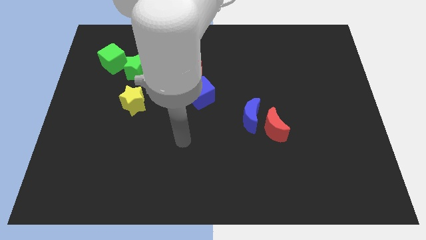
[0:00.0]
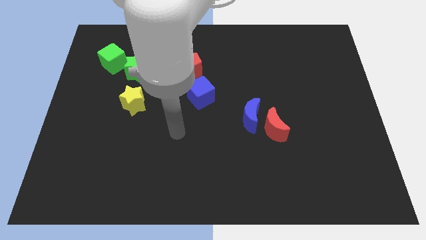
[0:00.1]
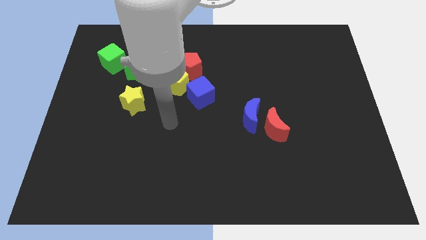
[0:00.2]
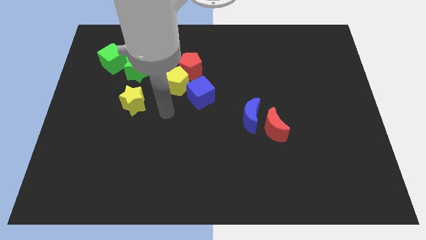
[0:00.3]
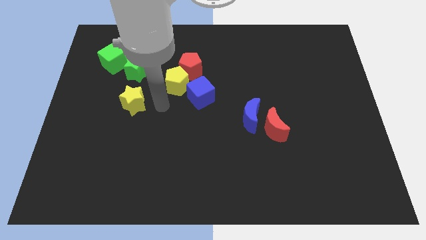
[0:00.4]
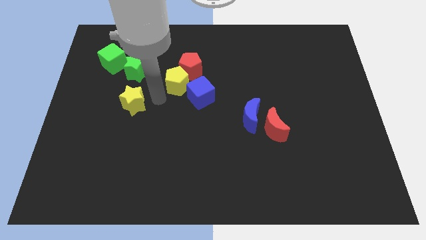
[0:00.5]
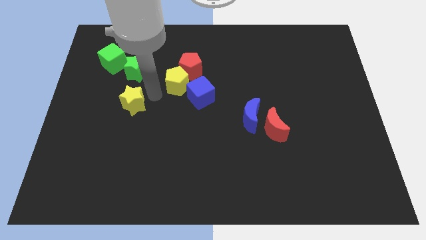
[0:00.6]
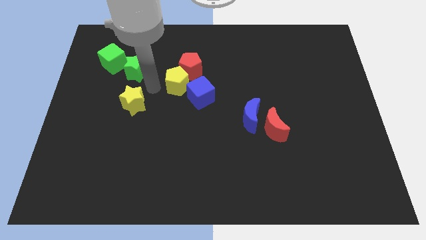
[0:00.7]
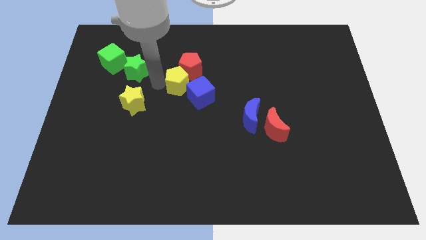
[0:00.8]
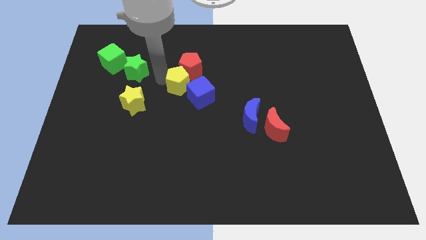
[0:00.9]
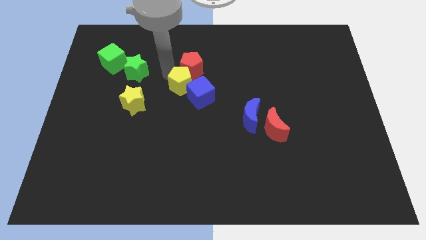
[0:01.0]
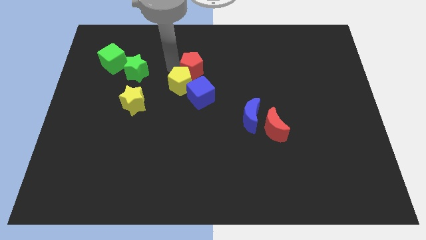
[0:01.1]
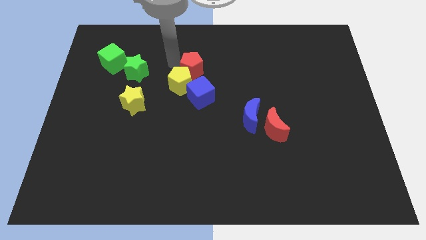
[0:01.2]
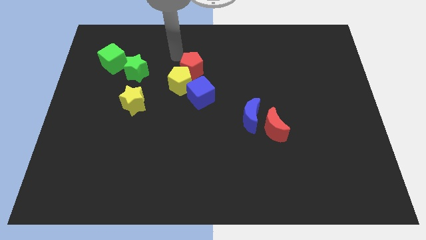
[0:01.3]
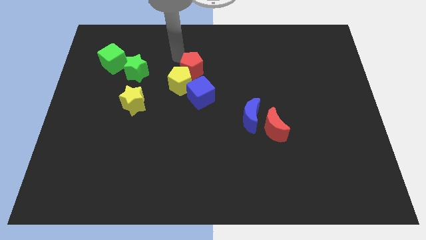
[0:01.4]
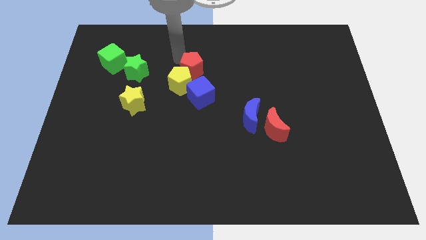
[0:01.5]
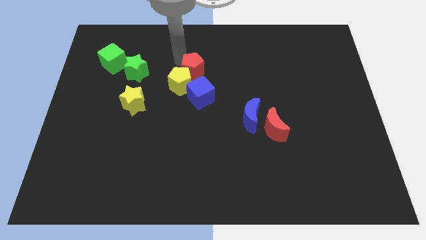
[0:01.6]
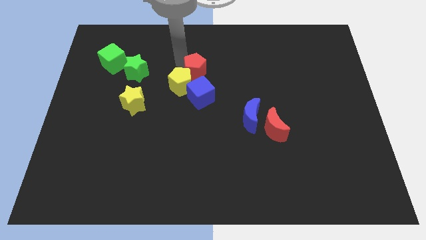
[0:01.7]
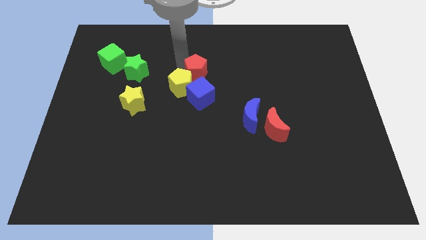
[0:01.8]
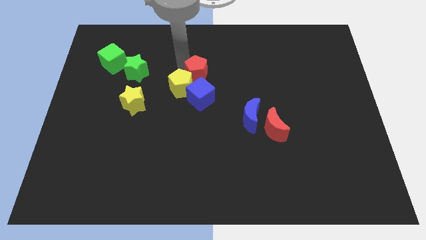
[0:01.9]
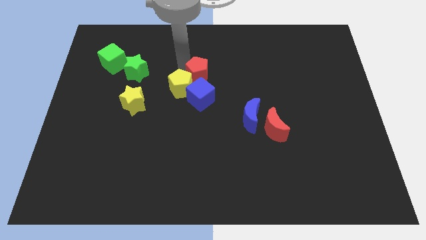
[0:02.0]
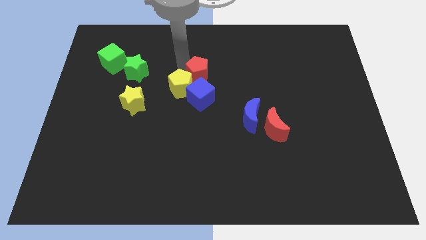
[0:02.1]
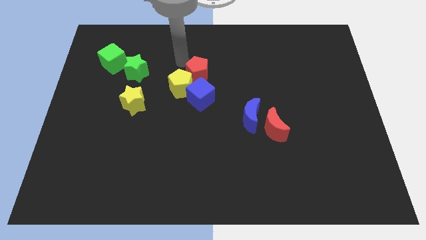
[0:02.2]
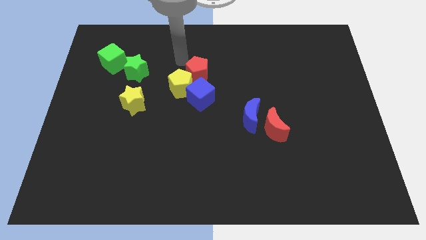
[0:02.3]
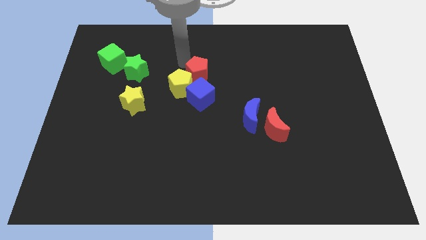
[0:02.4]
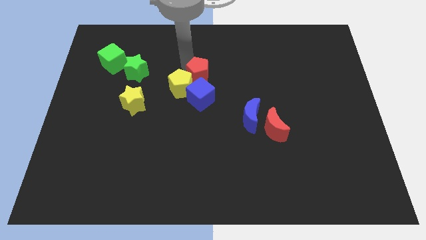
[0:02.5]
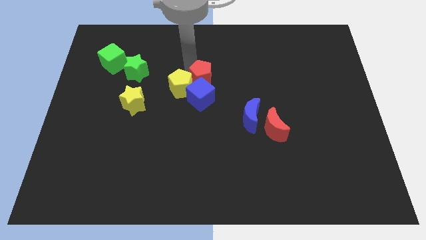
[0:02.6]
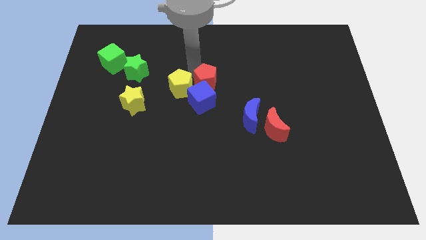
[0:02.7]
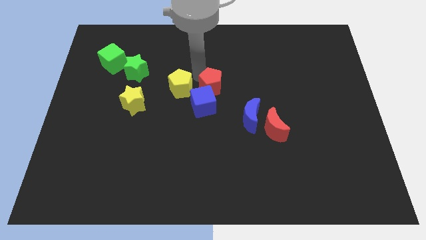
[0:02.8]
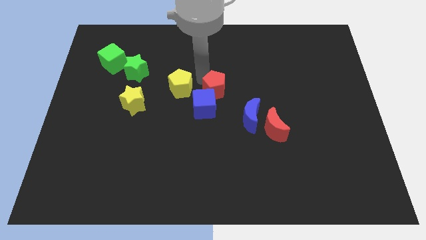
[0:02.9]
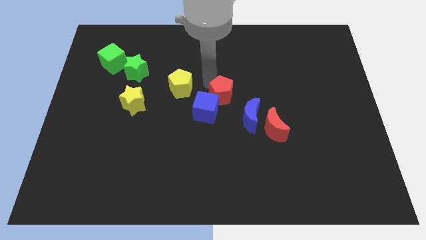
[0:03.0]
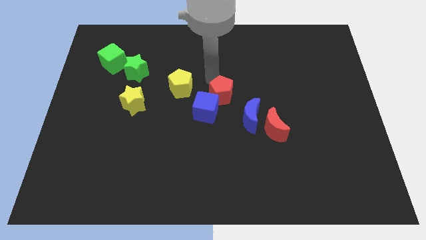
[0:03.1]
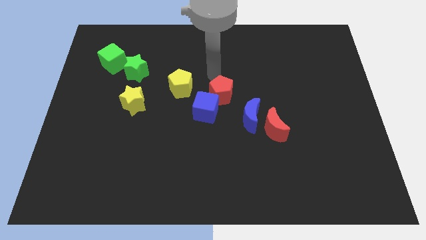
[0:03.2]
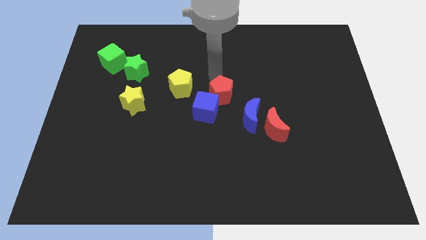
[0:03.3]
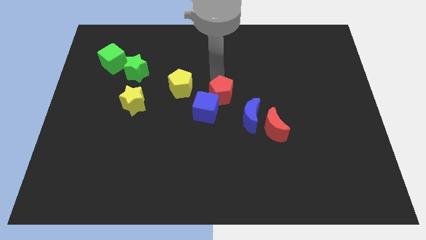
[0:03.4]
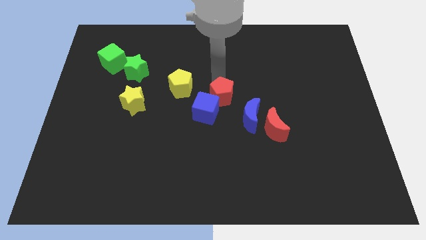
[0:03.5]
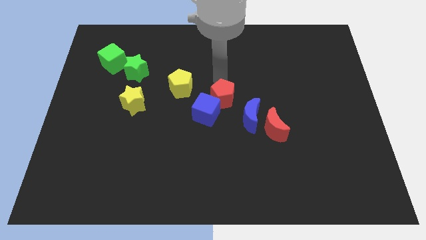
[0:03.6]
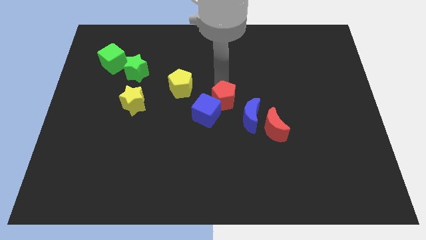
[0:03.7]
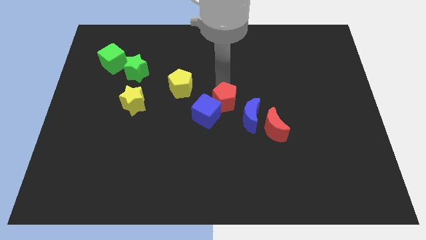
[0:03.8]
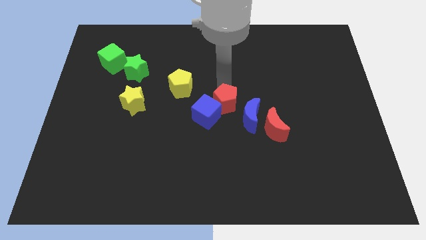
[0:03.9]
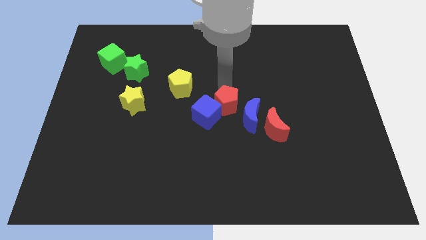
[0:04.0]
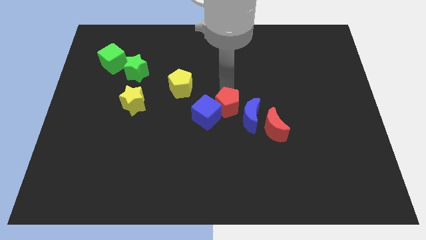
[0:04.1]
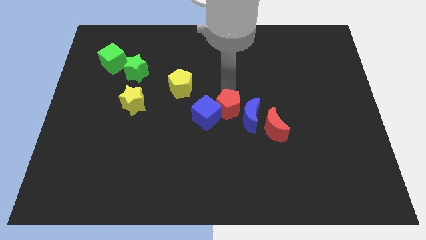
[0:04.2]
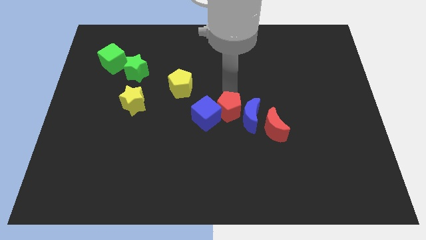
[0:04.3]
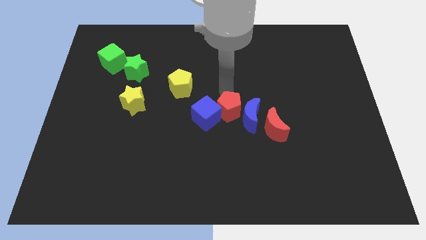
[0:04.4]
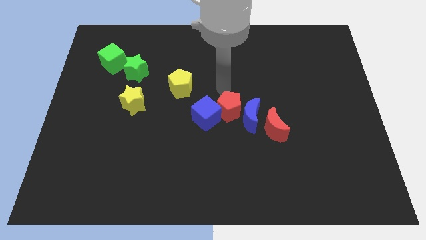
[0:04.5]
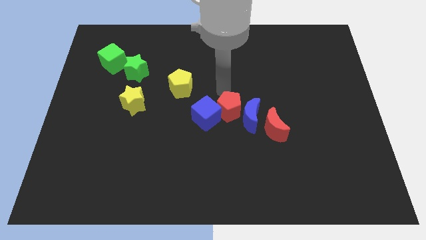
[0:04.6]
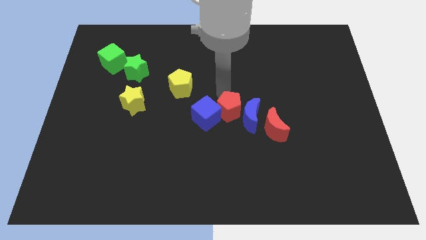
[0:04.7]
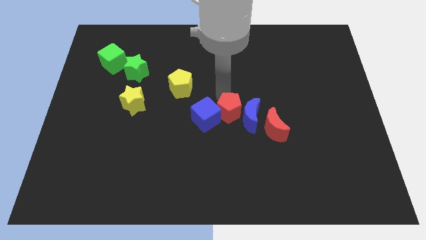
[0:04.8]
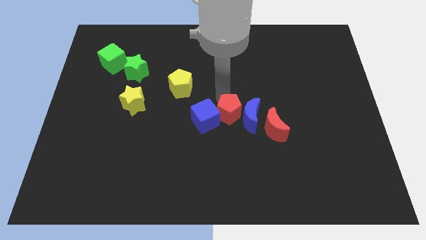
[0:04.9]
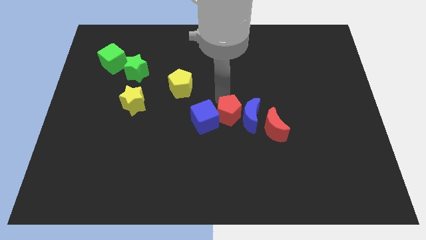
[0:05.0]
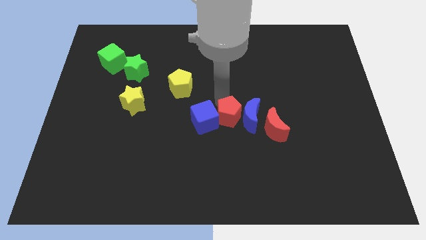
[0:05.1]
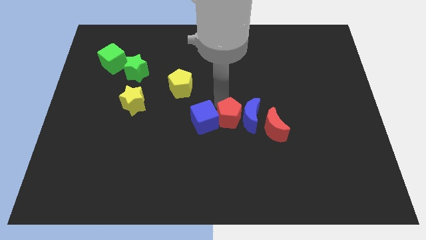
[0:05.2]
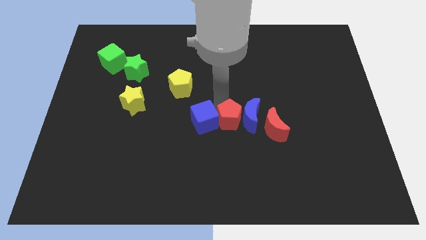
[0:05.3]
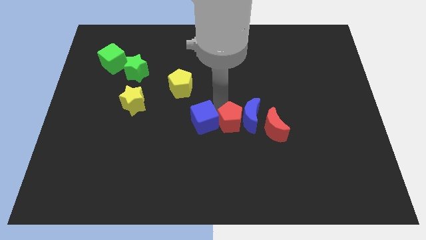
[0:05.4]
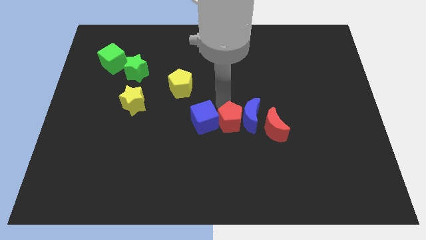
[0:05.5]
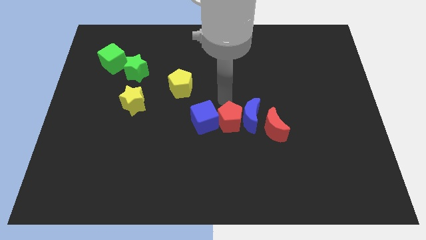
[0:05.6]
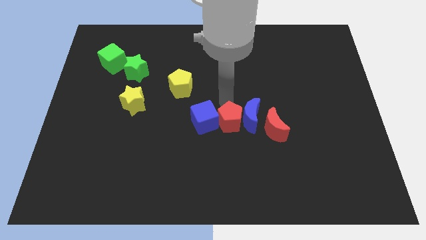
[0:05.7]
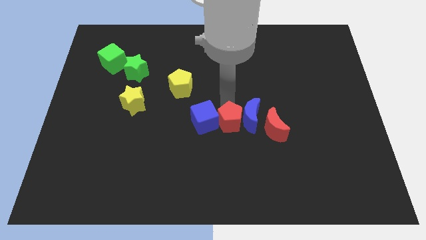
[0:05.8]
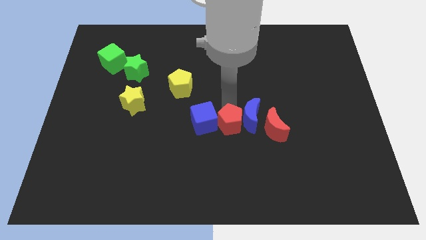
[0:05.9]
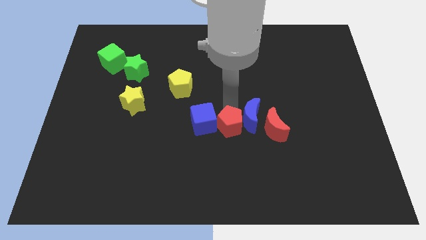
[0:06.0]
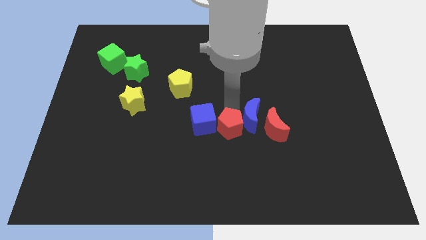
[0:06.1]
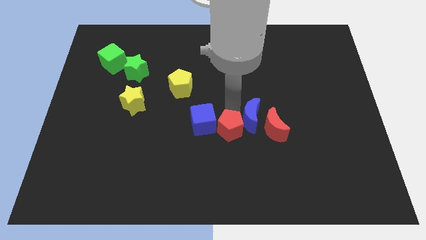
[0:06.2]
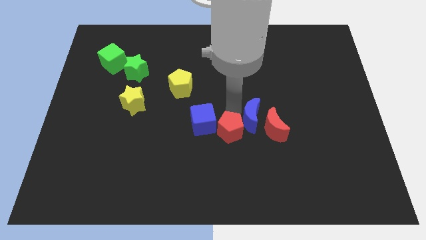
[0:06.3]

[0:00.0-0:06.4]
slide the red pentagon to the bottom side of the blue moon

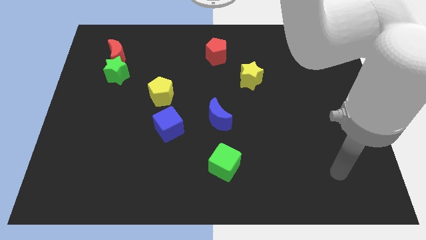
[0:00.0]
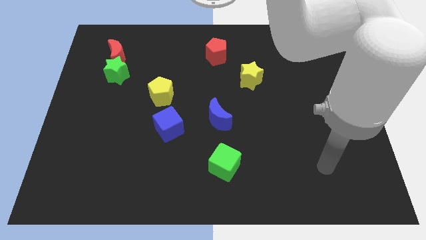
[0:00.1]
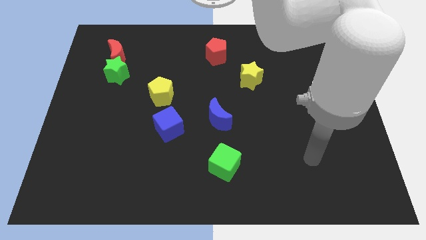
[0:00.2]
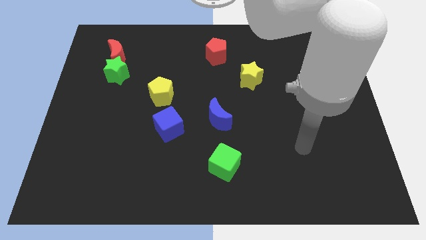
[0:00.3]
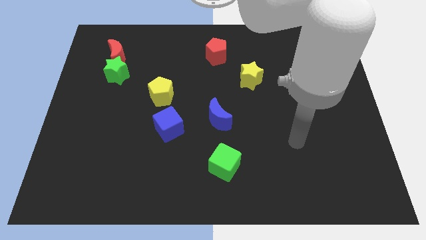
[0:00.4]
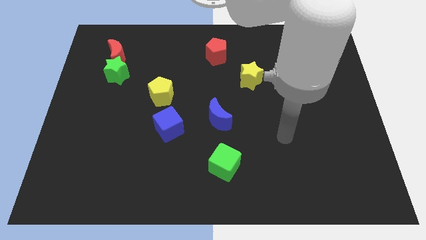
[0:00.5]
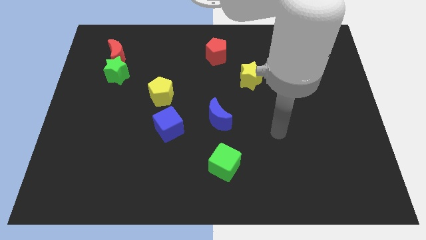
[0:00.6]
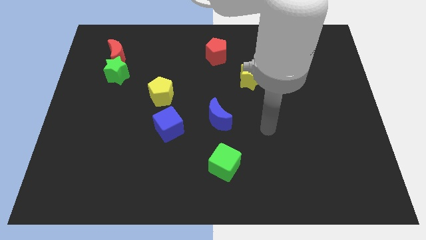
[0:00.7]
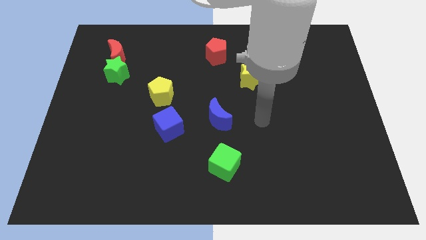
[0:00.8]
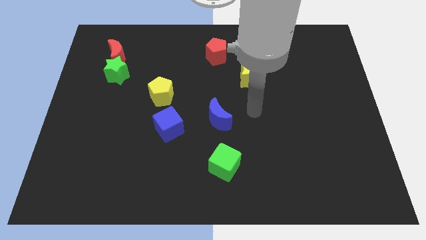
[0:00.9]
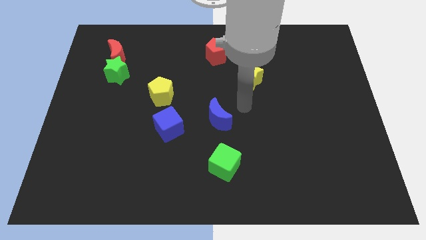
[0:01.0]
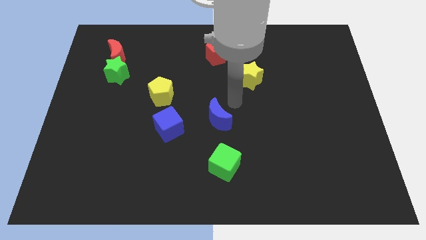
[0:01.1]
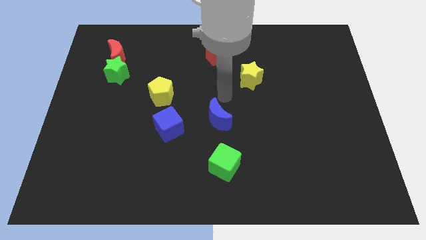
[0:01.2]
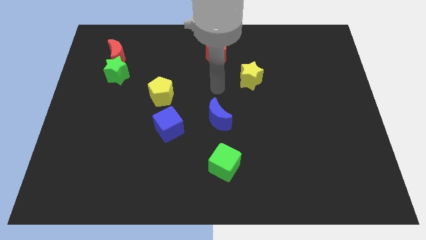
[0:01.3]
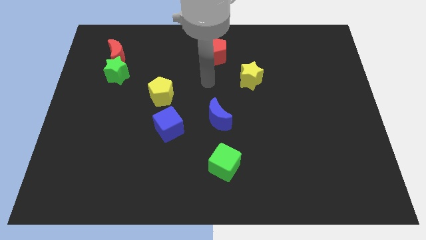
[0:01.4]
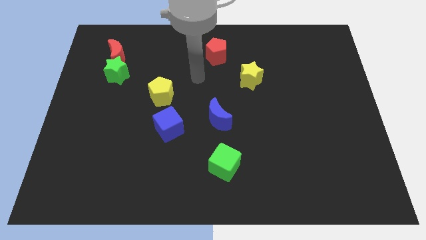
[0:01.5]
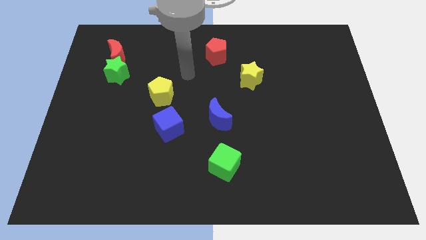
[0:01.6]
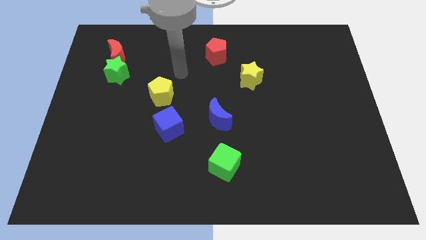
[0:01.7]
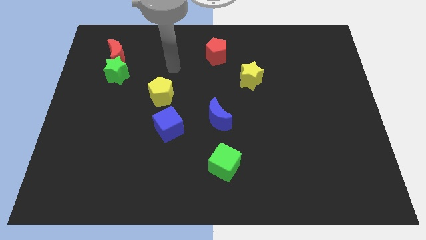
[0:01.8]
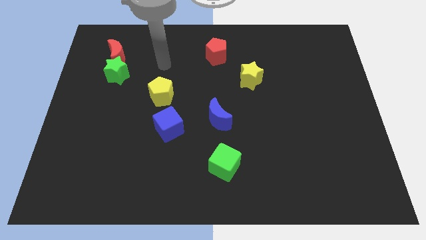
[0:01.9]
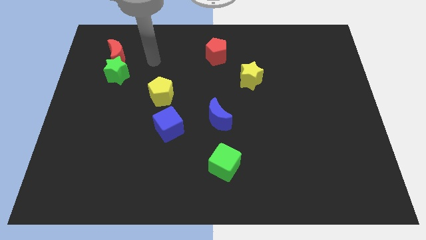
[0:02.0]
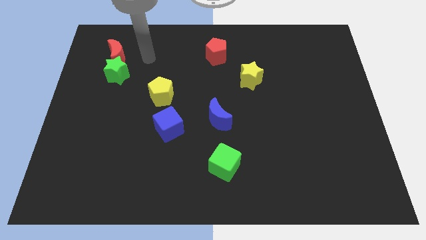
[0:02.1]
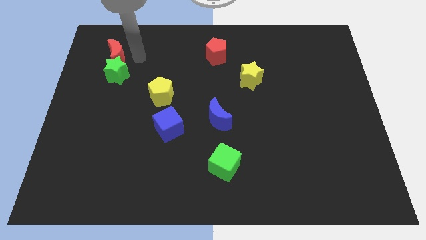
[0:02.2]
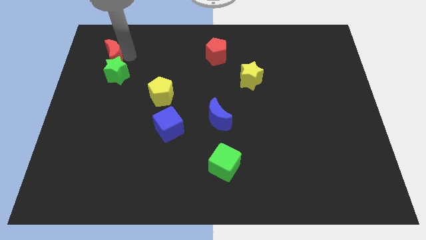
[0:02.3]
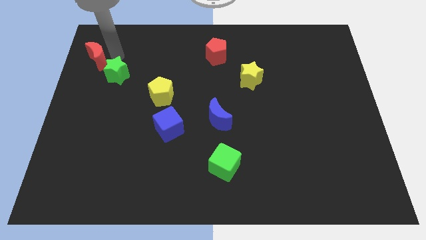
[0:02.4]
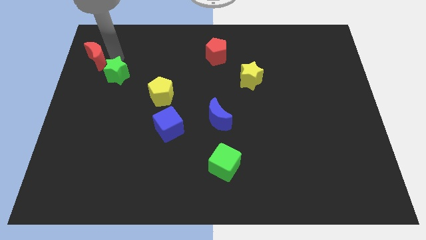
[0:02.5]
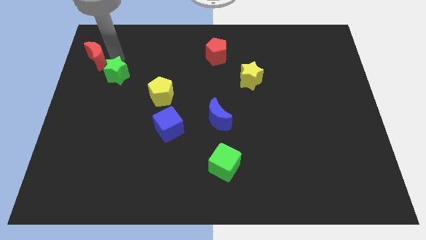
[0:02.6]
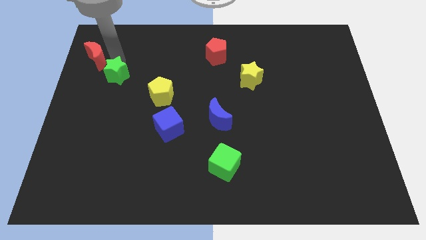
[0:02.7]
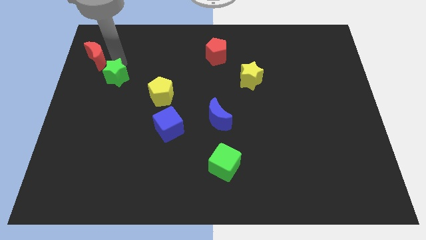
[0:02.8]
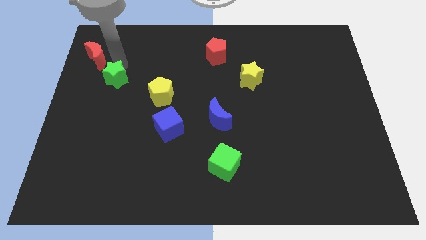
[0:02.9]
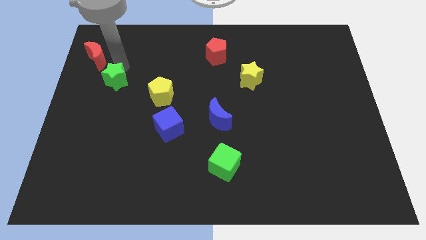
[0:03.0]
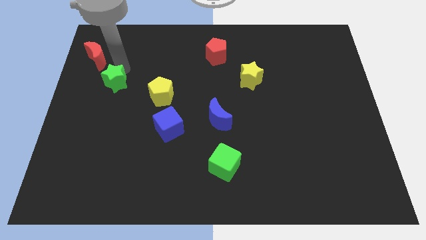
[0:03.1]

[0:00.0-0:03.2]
push the green star to the left side of the yellow pentagon
